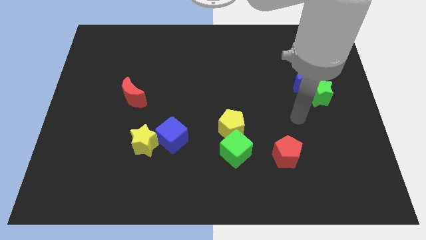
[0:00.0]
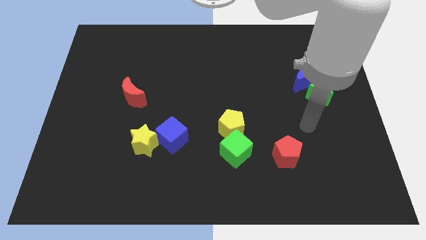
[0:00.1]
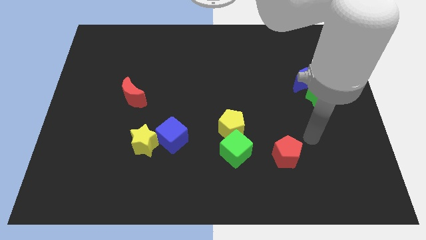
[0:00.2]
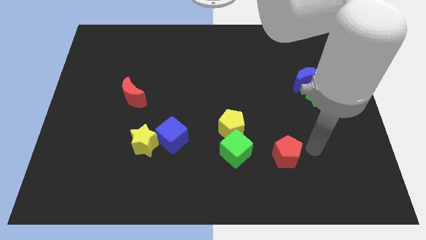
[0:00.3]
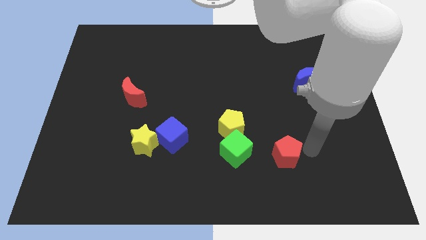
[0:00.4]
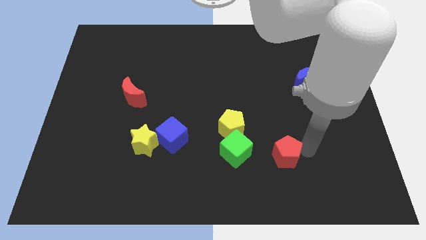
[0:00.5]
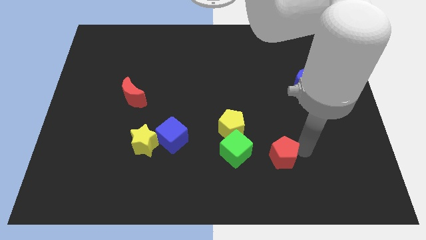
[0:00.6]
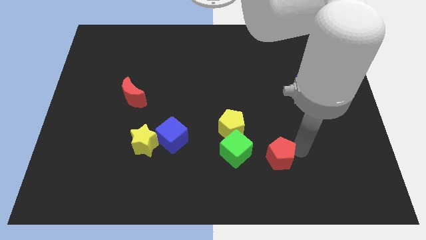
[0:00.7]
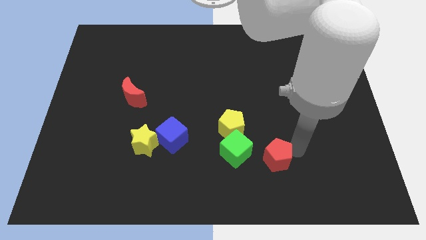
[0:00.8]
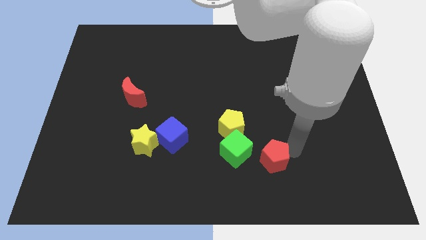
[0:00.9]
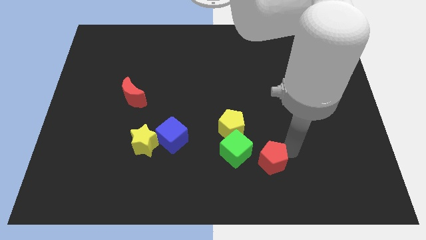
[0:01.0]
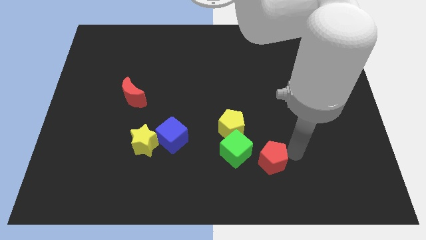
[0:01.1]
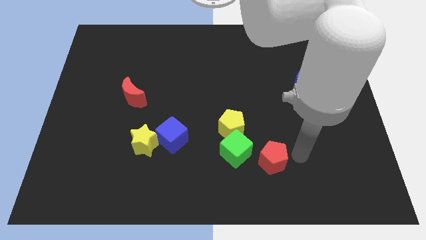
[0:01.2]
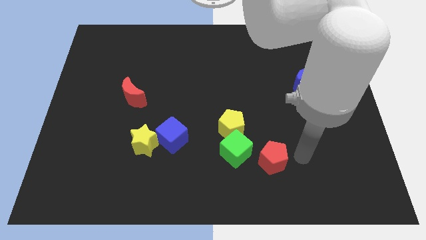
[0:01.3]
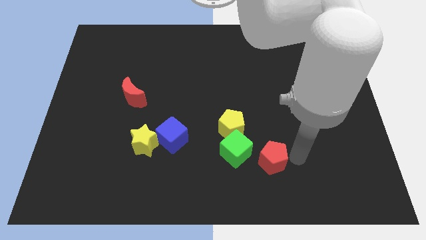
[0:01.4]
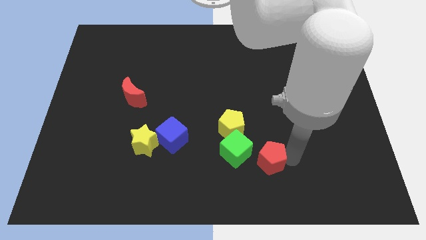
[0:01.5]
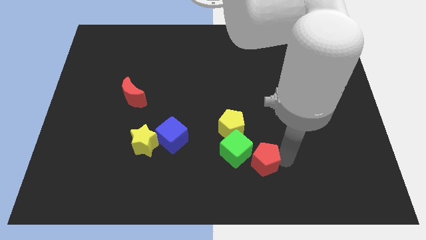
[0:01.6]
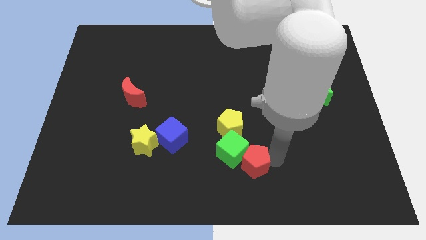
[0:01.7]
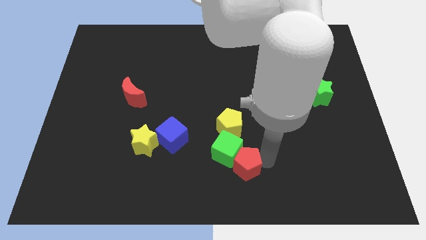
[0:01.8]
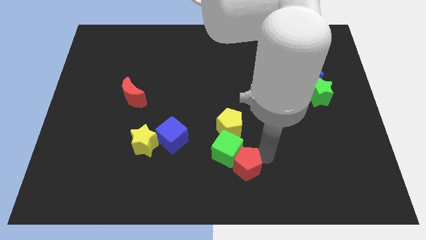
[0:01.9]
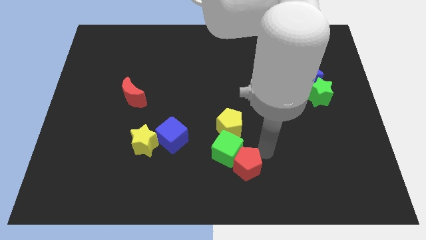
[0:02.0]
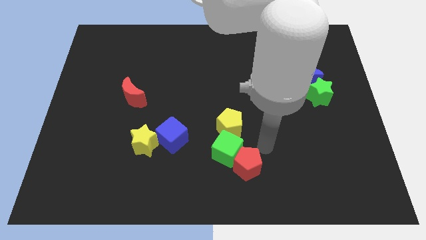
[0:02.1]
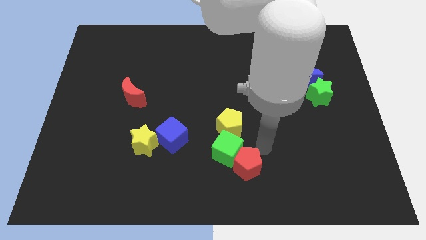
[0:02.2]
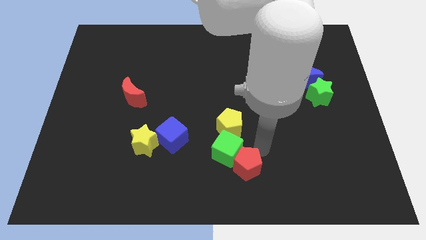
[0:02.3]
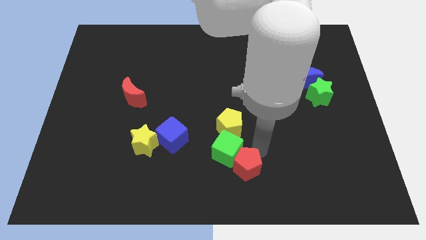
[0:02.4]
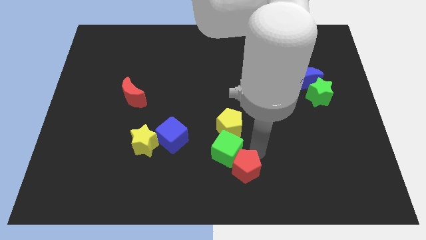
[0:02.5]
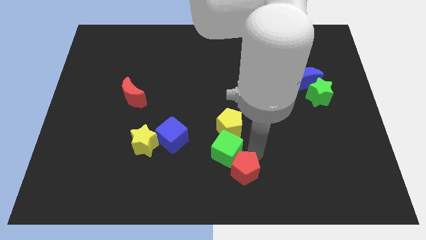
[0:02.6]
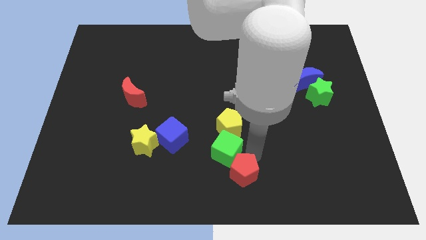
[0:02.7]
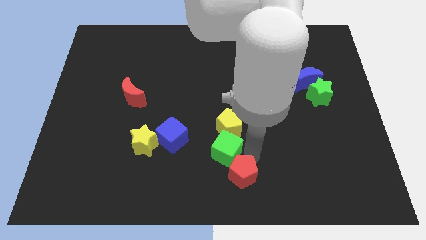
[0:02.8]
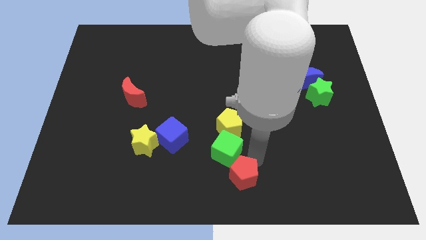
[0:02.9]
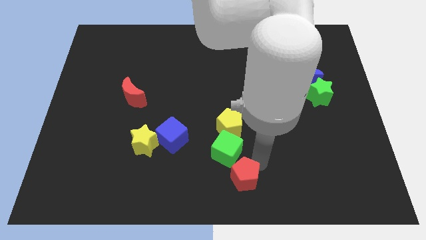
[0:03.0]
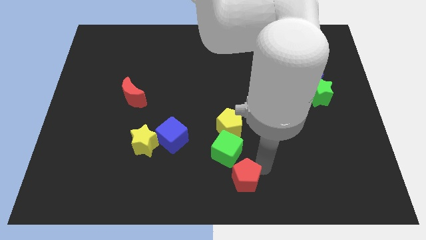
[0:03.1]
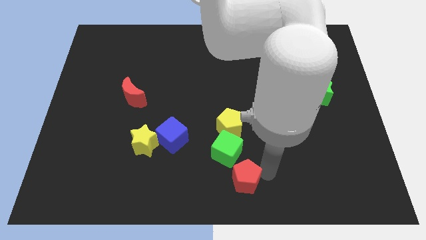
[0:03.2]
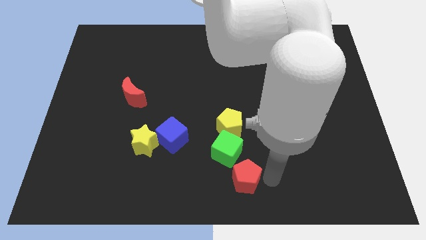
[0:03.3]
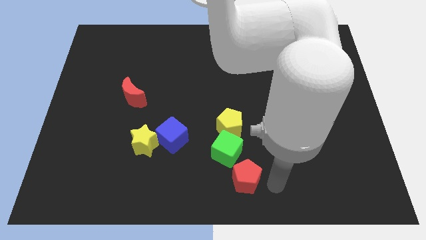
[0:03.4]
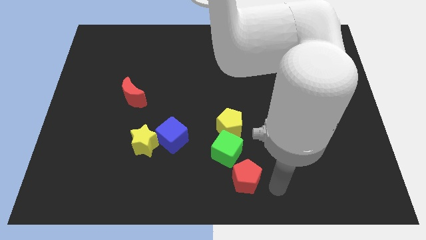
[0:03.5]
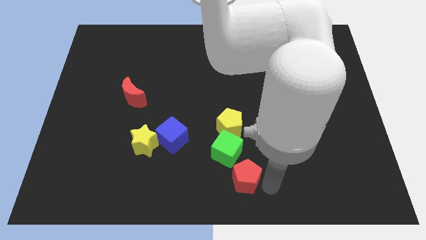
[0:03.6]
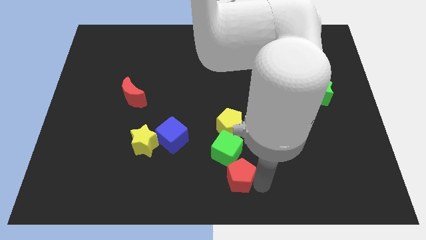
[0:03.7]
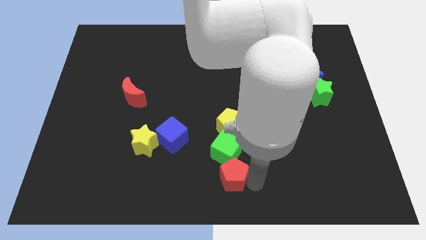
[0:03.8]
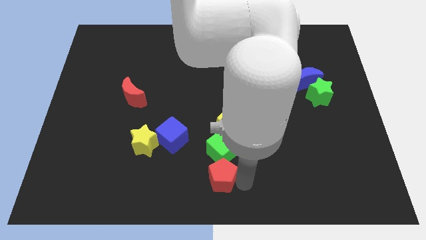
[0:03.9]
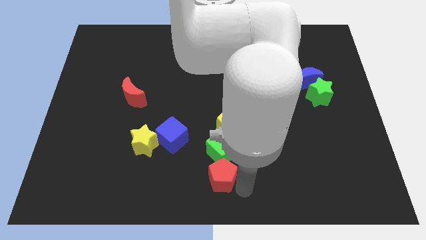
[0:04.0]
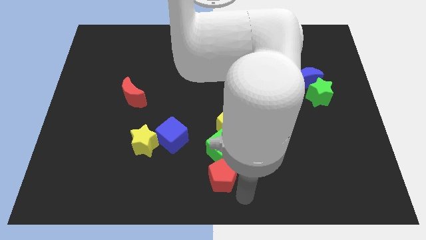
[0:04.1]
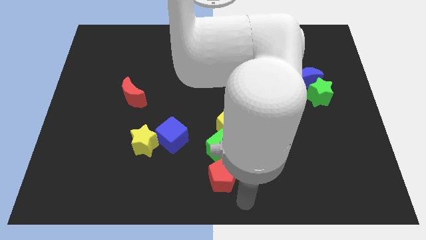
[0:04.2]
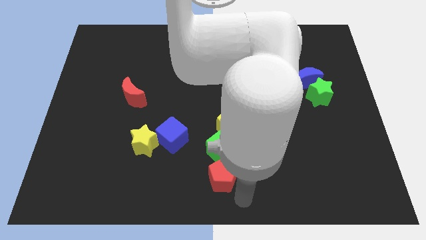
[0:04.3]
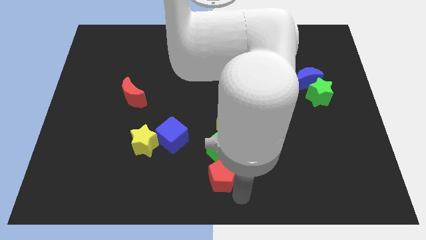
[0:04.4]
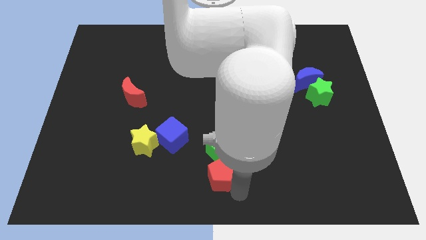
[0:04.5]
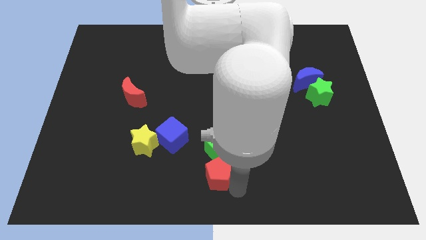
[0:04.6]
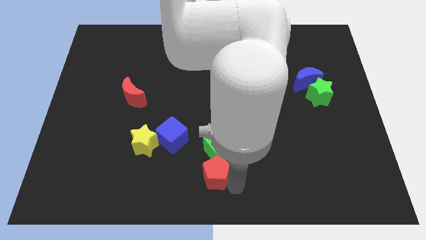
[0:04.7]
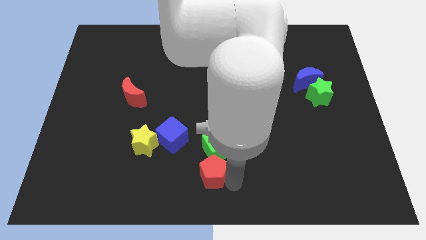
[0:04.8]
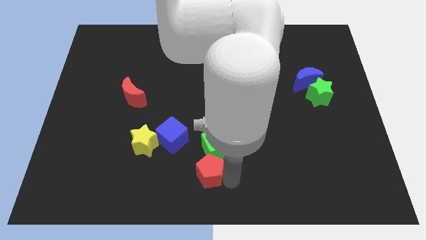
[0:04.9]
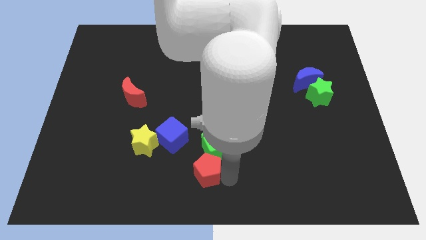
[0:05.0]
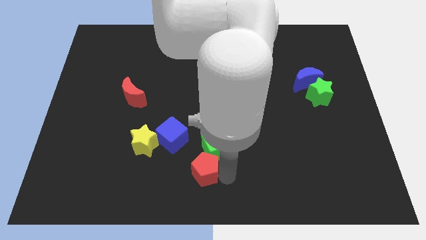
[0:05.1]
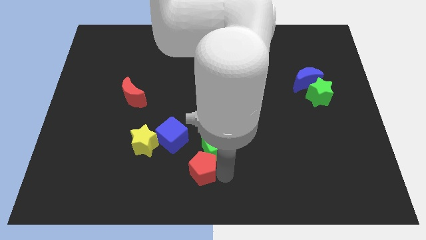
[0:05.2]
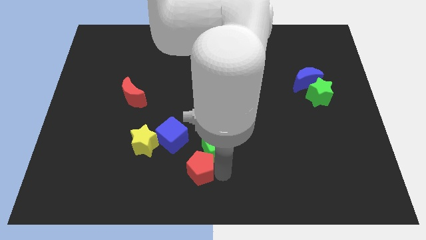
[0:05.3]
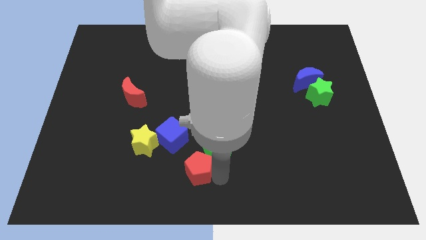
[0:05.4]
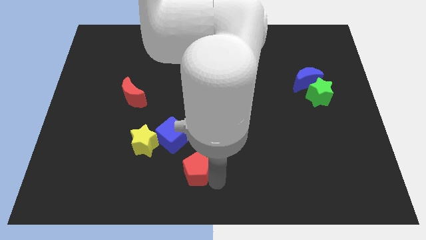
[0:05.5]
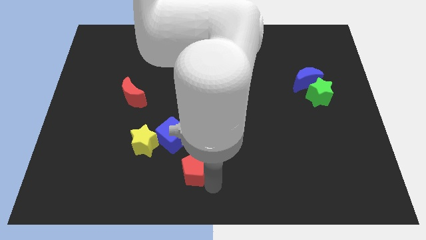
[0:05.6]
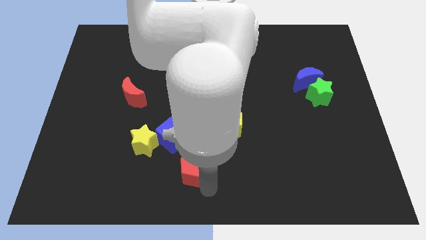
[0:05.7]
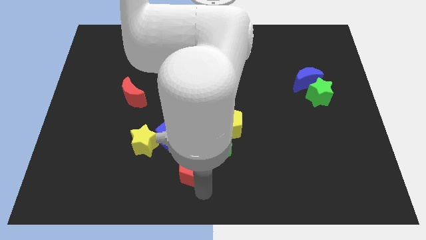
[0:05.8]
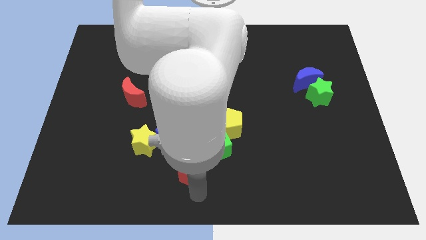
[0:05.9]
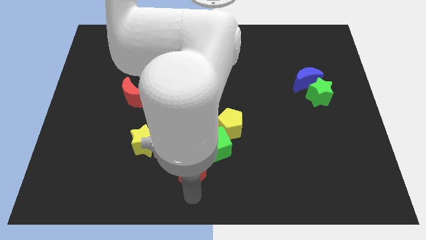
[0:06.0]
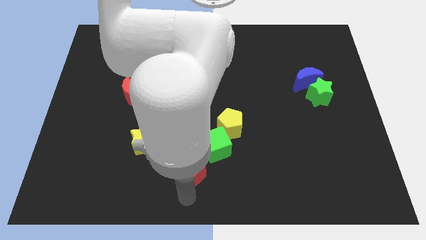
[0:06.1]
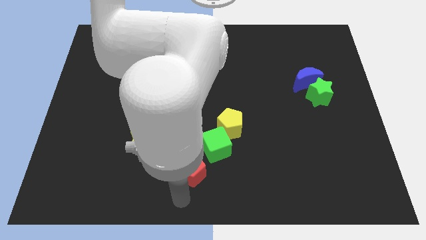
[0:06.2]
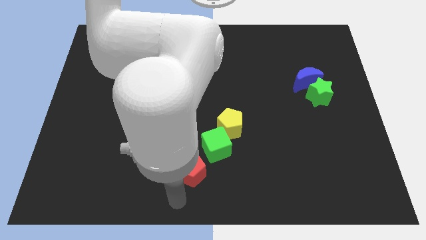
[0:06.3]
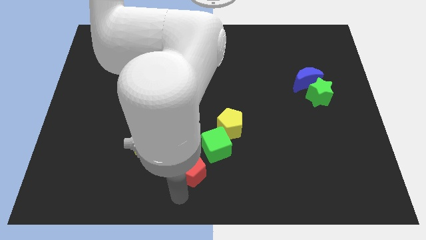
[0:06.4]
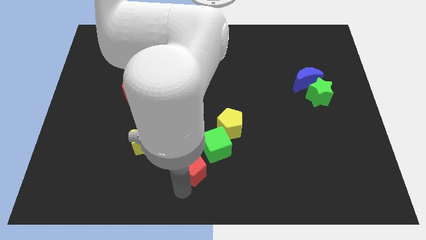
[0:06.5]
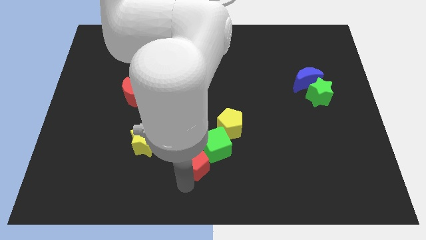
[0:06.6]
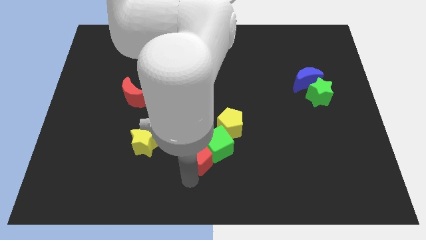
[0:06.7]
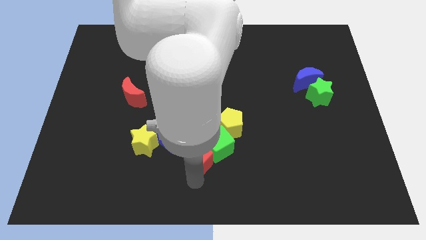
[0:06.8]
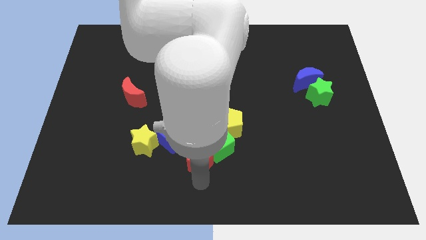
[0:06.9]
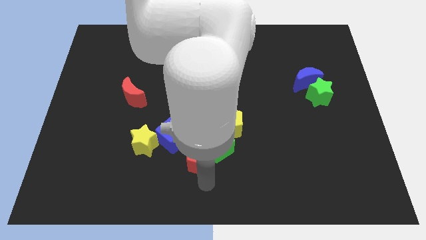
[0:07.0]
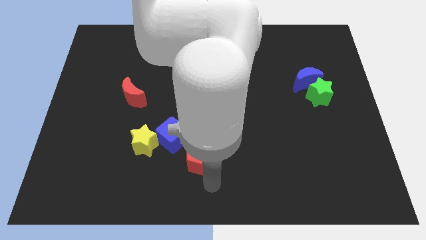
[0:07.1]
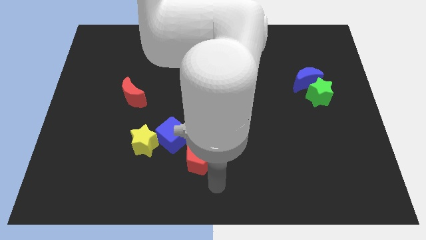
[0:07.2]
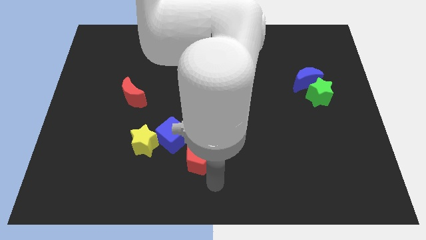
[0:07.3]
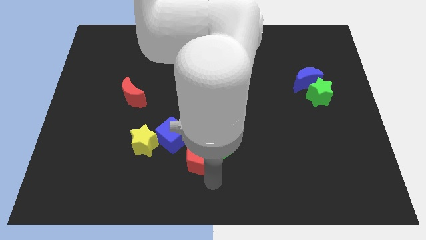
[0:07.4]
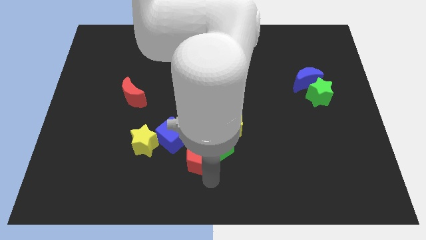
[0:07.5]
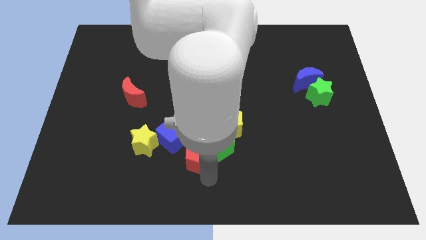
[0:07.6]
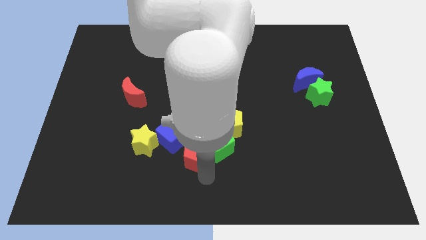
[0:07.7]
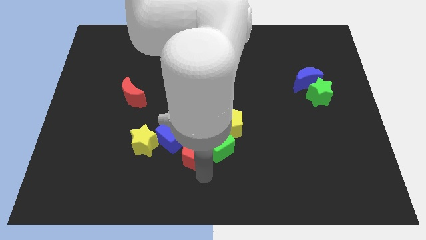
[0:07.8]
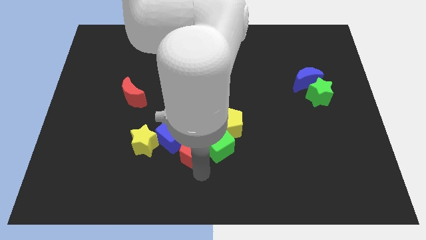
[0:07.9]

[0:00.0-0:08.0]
move the red pentagon next to the blue cube
